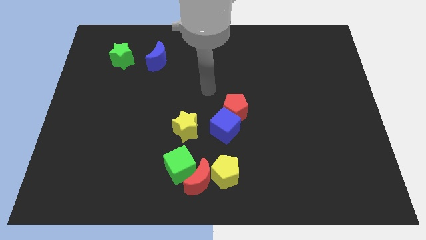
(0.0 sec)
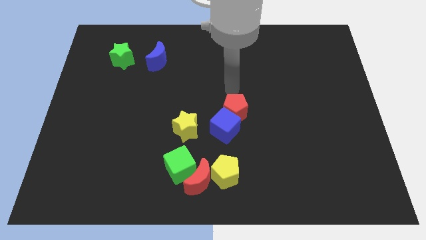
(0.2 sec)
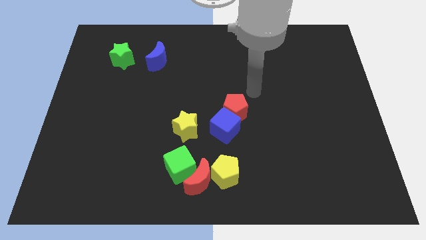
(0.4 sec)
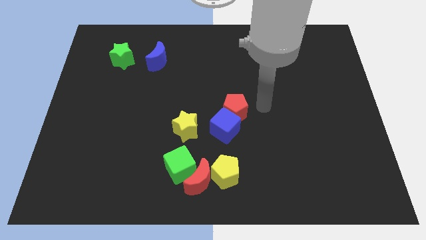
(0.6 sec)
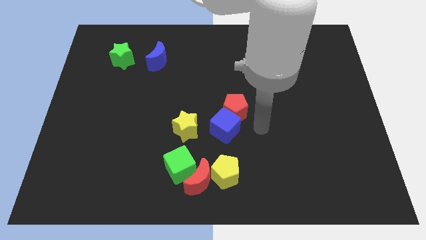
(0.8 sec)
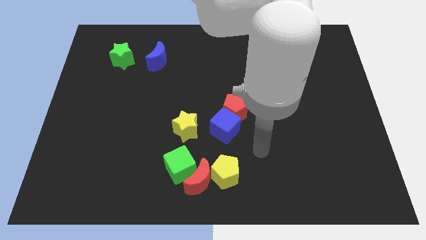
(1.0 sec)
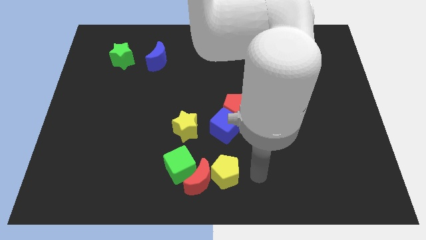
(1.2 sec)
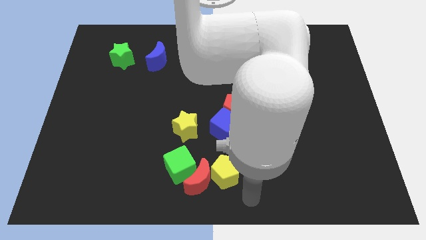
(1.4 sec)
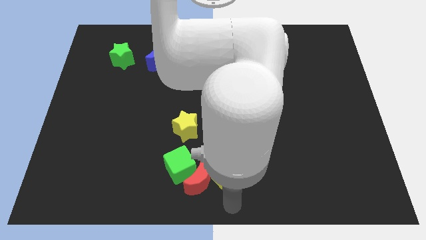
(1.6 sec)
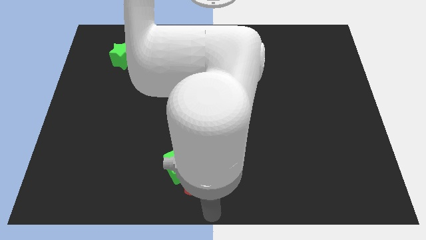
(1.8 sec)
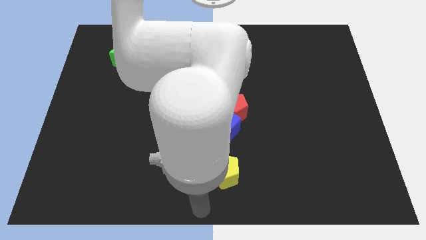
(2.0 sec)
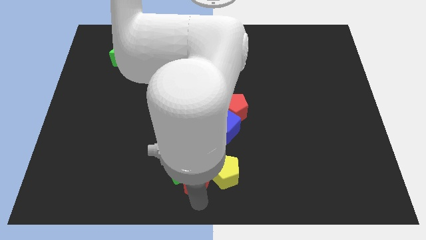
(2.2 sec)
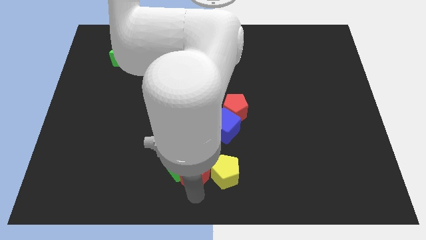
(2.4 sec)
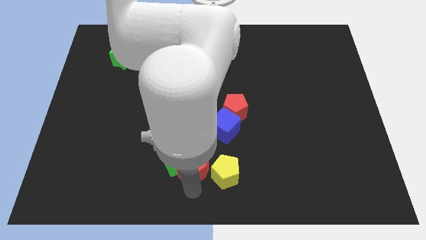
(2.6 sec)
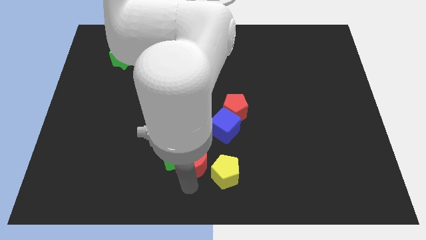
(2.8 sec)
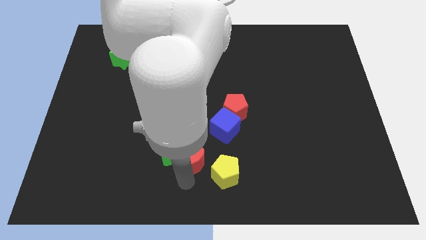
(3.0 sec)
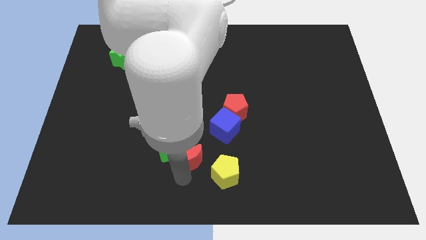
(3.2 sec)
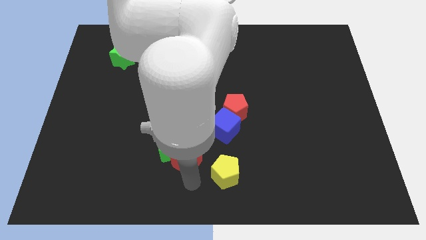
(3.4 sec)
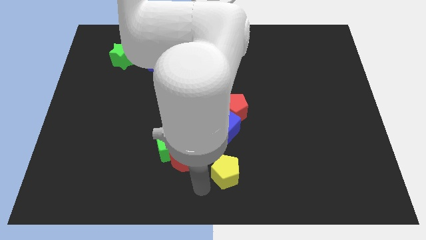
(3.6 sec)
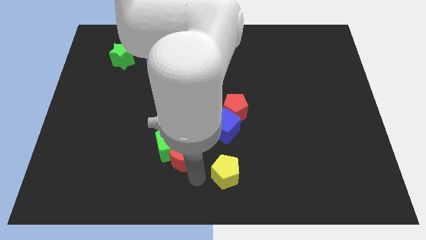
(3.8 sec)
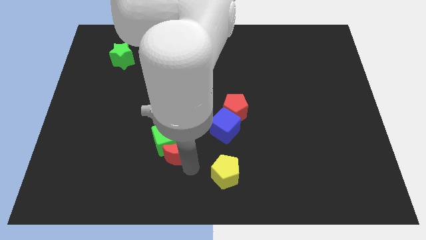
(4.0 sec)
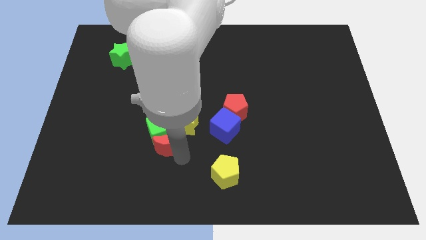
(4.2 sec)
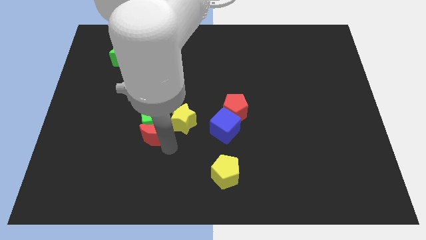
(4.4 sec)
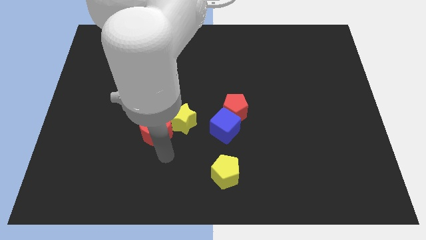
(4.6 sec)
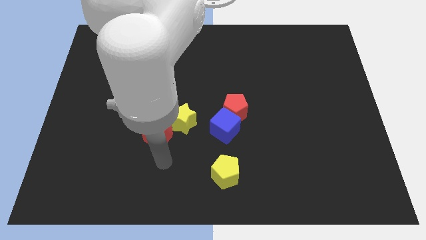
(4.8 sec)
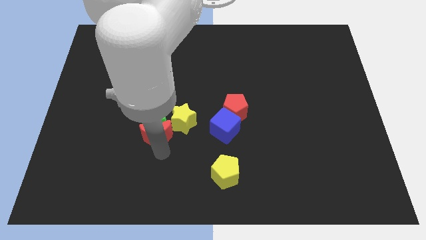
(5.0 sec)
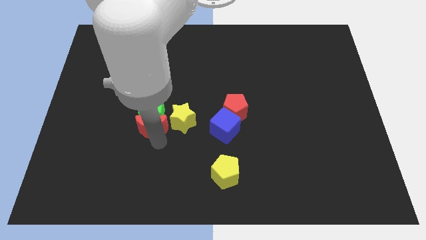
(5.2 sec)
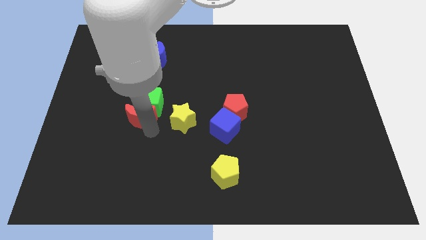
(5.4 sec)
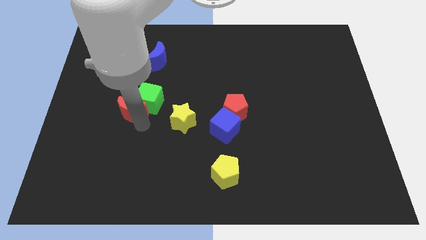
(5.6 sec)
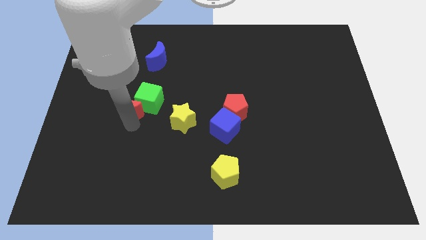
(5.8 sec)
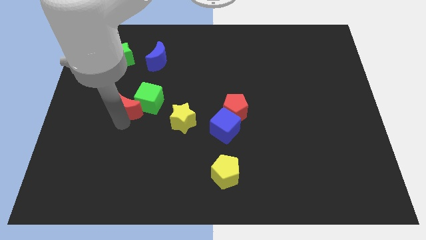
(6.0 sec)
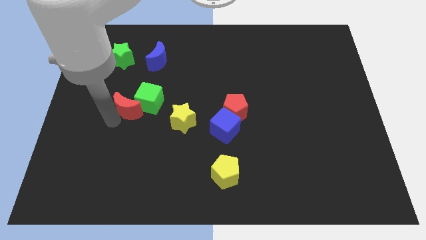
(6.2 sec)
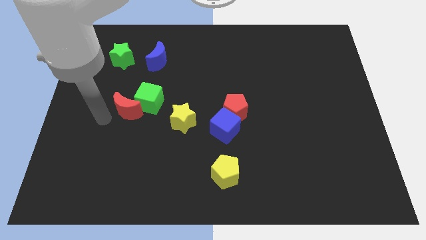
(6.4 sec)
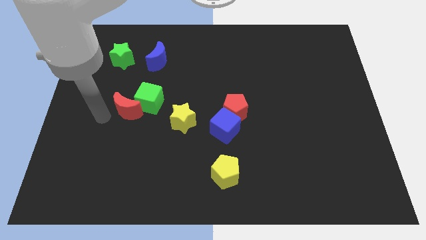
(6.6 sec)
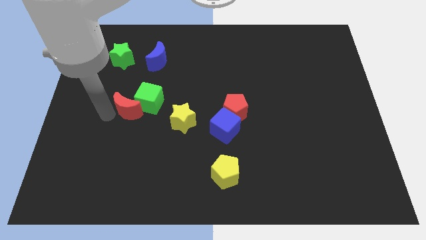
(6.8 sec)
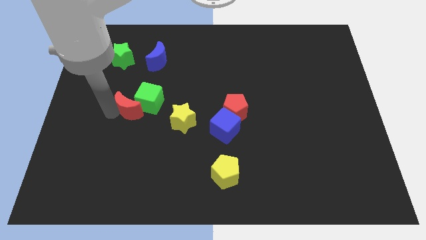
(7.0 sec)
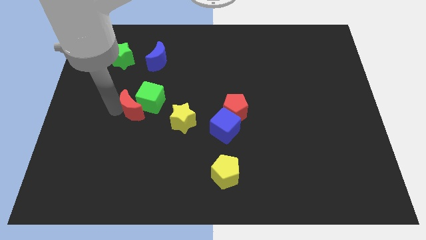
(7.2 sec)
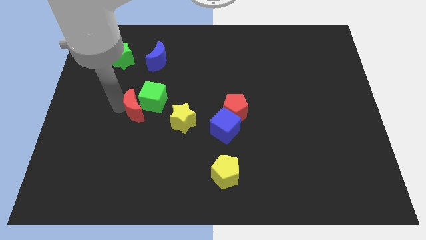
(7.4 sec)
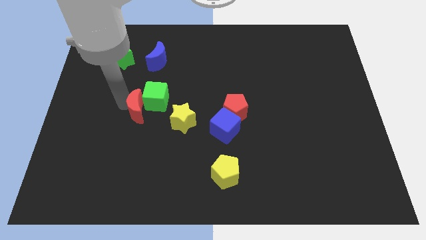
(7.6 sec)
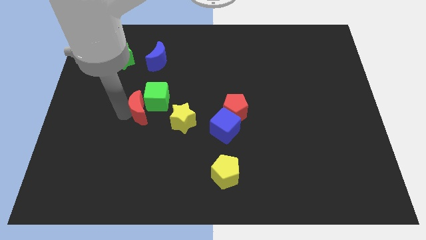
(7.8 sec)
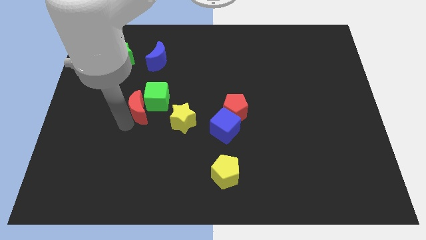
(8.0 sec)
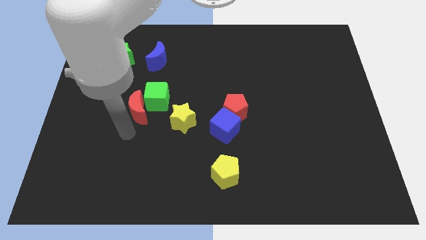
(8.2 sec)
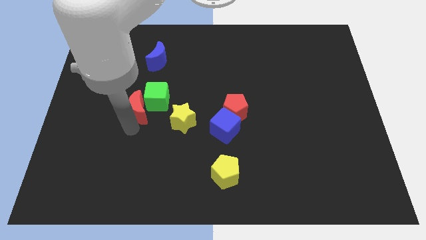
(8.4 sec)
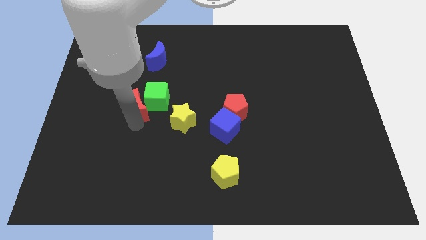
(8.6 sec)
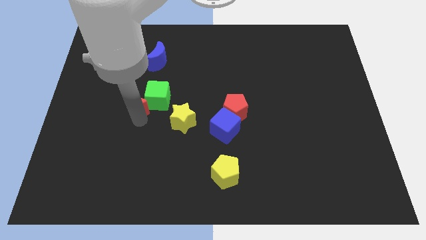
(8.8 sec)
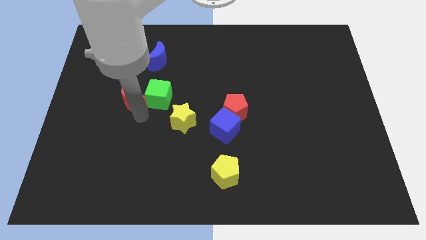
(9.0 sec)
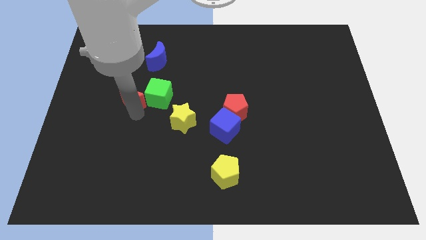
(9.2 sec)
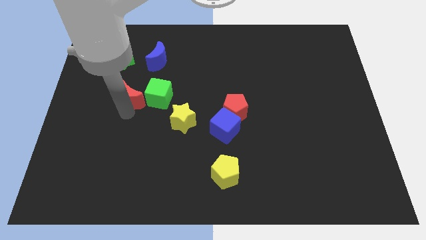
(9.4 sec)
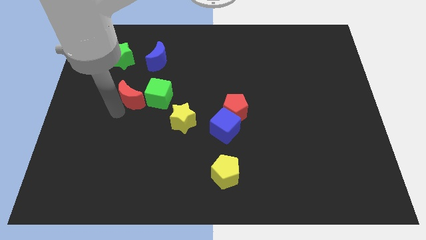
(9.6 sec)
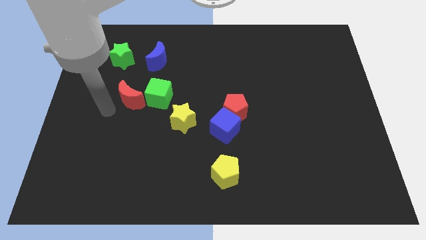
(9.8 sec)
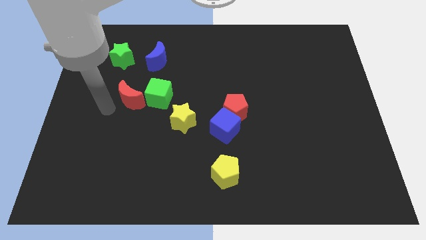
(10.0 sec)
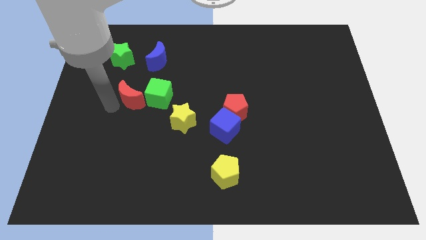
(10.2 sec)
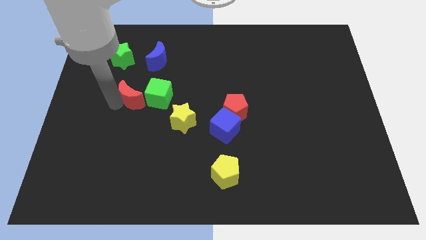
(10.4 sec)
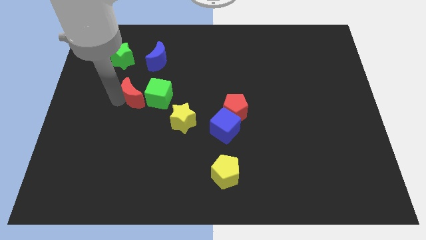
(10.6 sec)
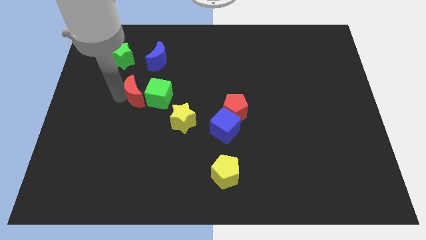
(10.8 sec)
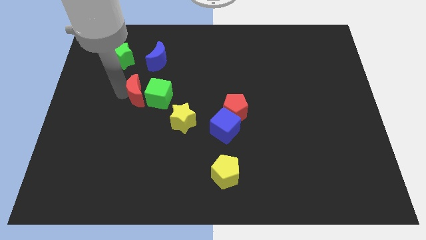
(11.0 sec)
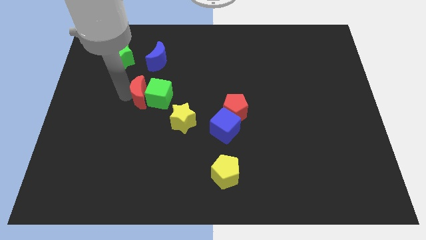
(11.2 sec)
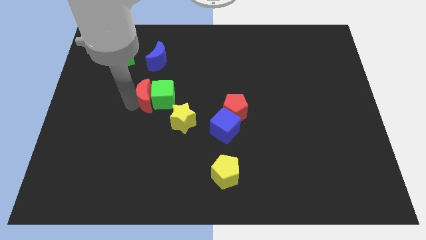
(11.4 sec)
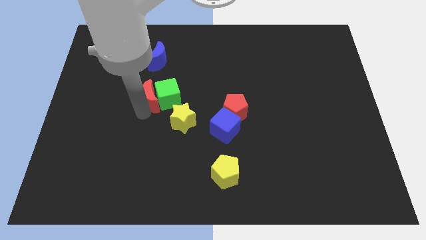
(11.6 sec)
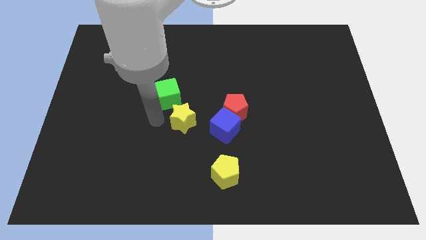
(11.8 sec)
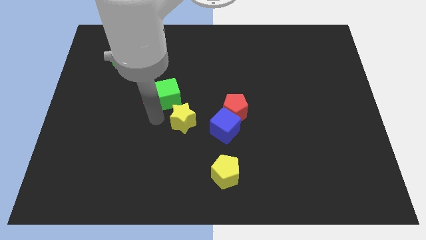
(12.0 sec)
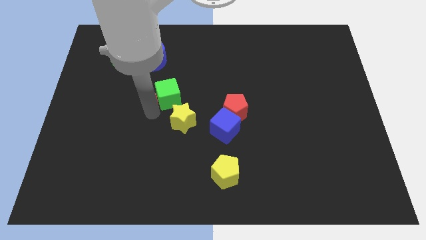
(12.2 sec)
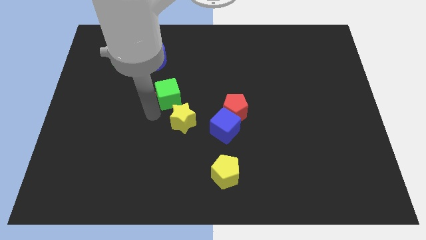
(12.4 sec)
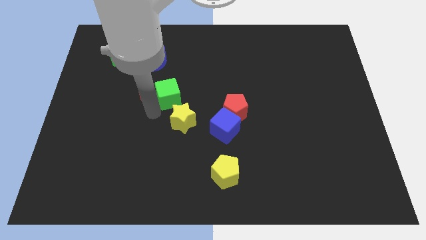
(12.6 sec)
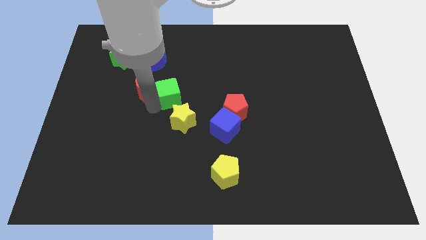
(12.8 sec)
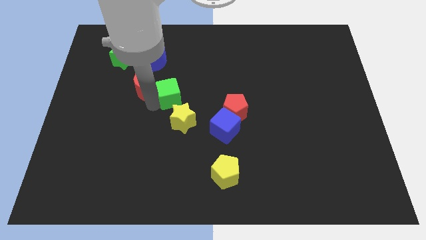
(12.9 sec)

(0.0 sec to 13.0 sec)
slide the red moon diagonally down and to the right of the green star

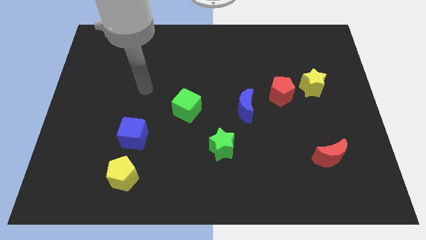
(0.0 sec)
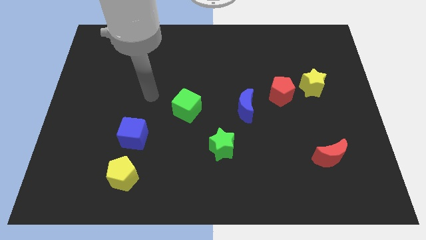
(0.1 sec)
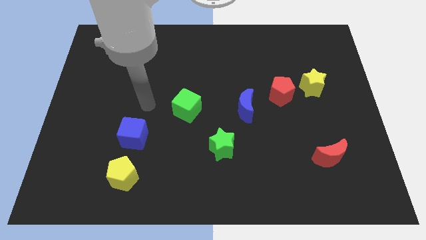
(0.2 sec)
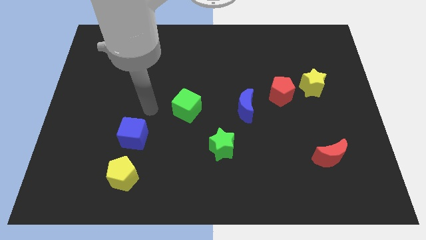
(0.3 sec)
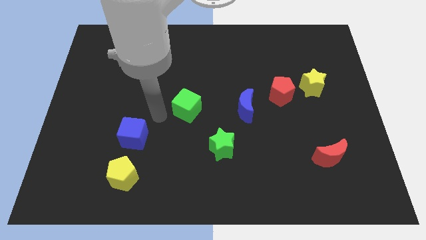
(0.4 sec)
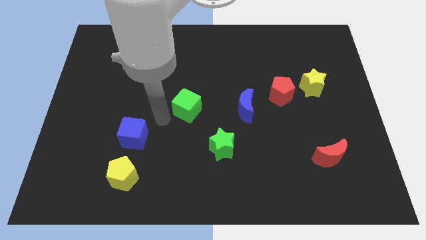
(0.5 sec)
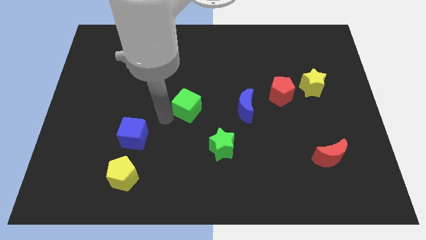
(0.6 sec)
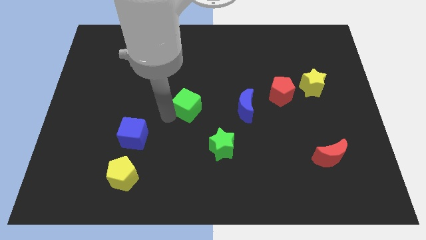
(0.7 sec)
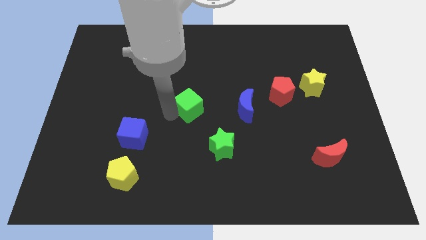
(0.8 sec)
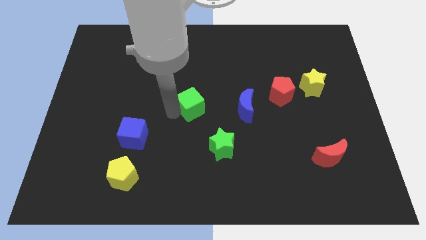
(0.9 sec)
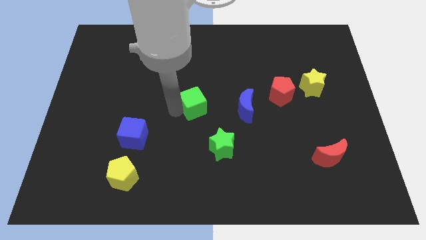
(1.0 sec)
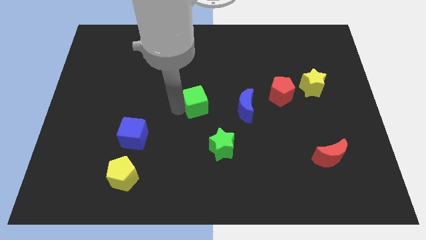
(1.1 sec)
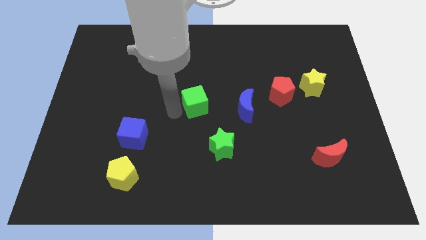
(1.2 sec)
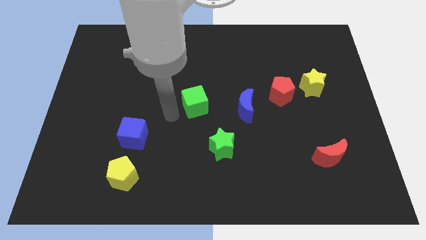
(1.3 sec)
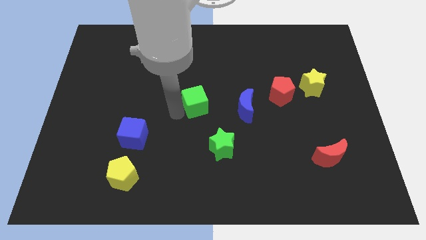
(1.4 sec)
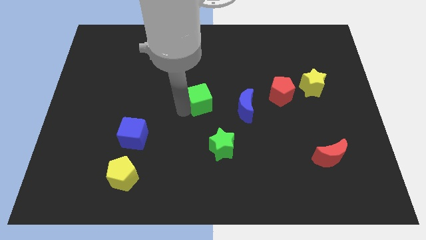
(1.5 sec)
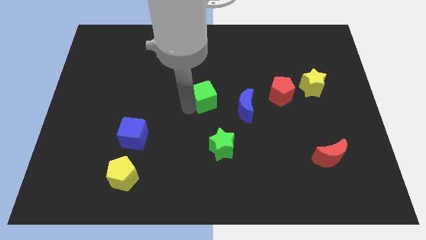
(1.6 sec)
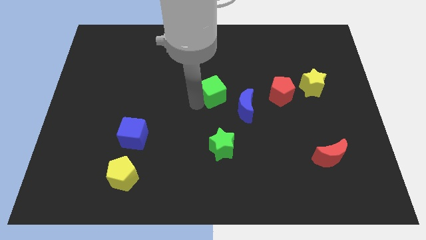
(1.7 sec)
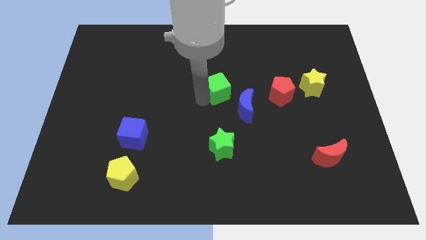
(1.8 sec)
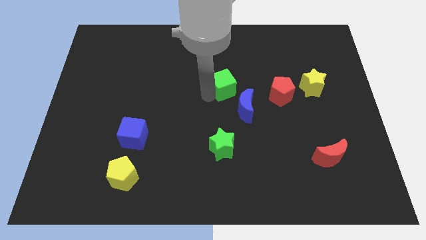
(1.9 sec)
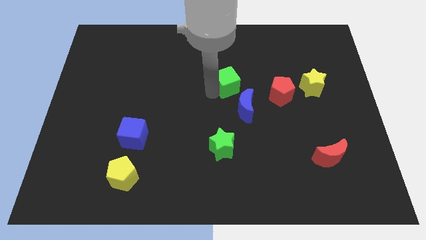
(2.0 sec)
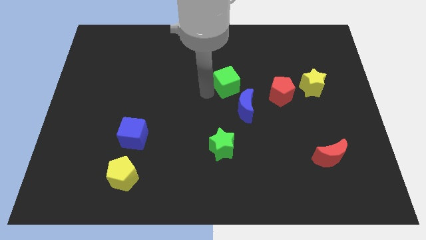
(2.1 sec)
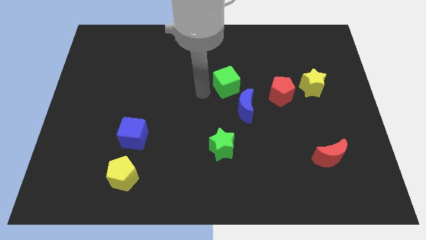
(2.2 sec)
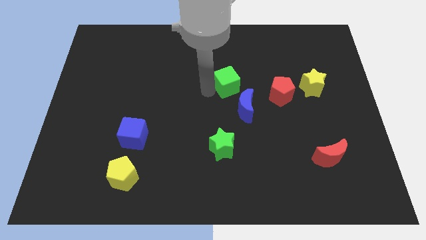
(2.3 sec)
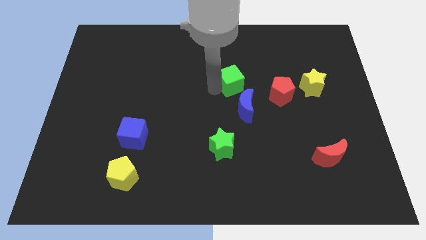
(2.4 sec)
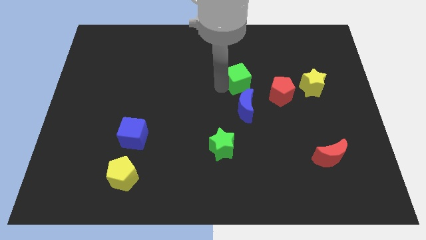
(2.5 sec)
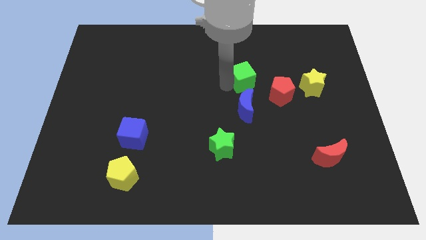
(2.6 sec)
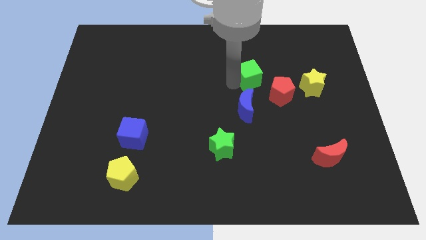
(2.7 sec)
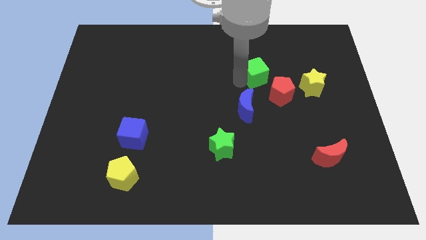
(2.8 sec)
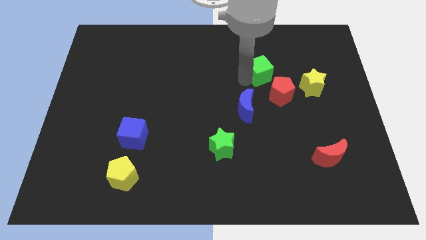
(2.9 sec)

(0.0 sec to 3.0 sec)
move the green cube to the top side of the red pentagon
